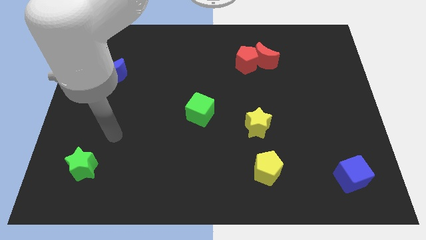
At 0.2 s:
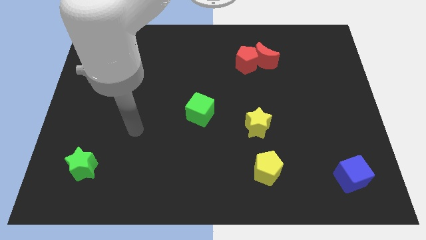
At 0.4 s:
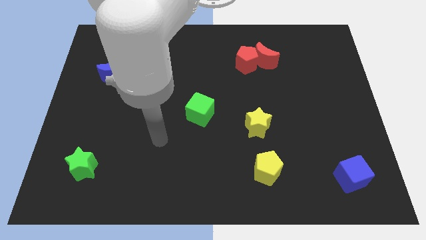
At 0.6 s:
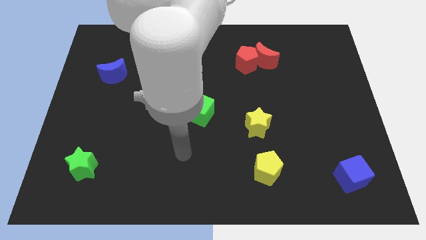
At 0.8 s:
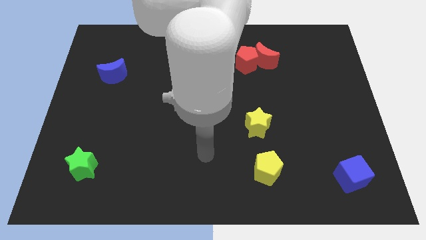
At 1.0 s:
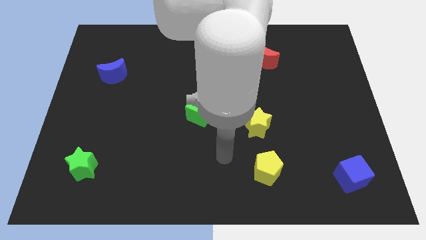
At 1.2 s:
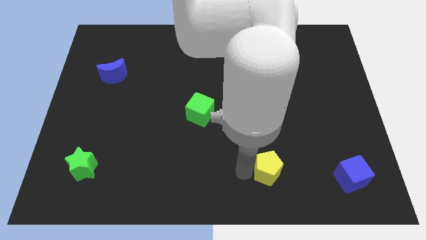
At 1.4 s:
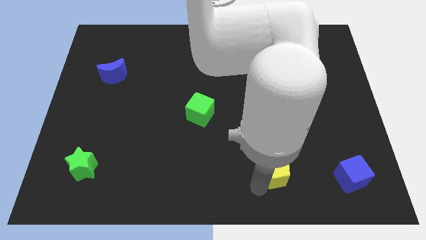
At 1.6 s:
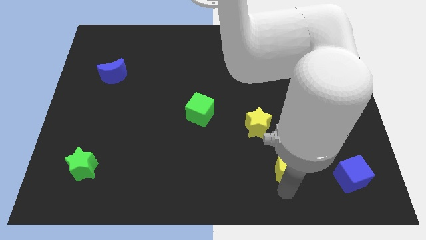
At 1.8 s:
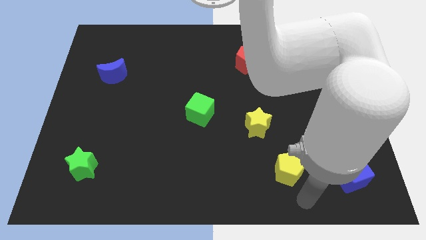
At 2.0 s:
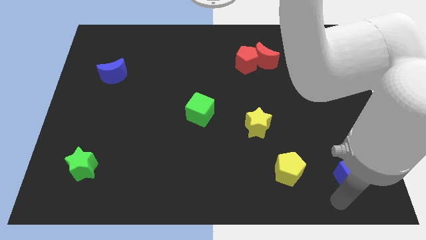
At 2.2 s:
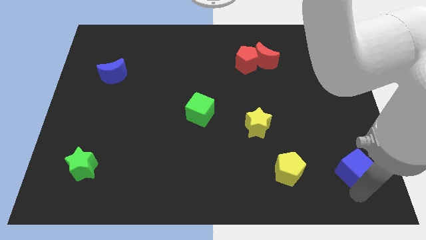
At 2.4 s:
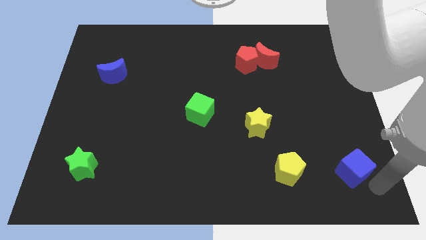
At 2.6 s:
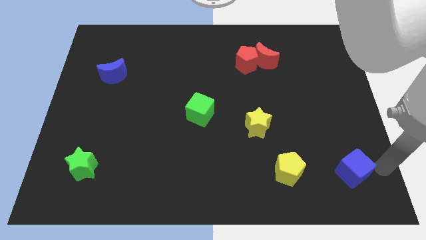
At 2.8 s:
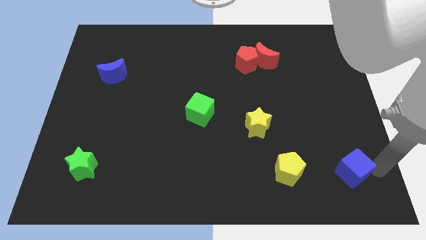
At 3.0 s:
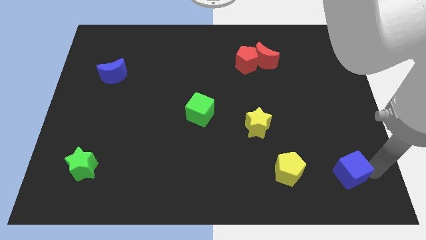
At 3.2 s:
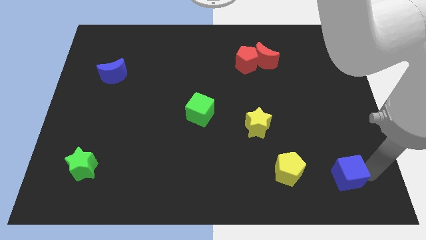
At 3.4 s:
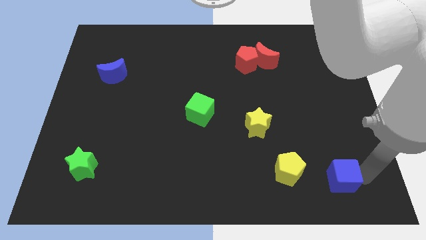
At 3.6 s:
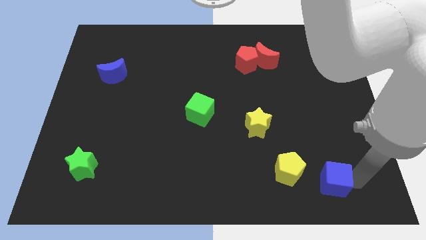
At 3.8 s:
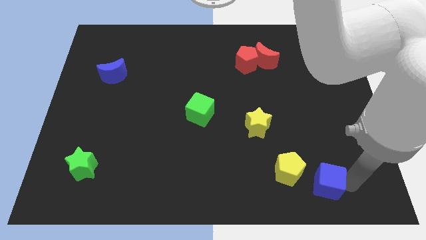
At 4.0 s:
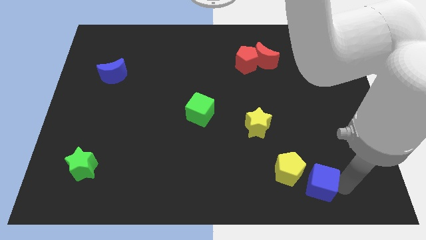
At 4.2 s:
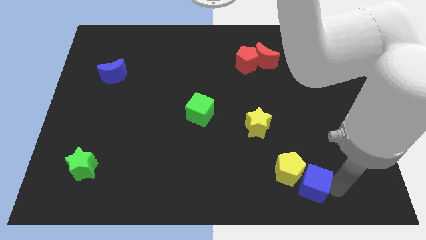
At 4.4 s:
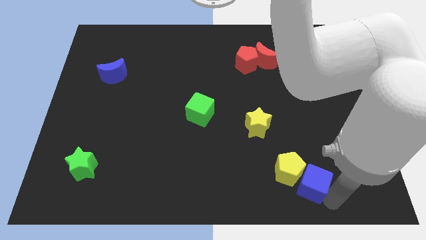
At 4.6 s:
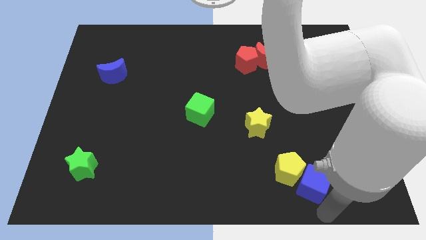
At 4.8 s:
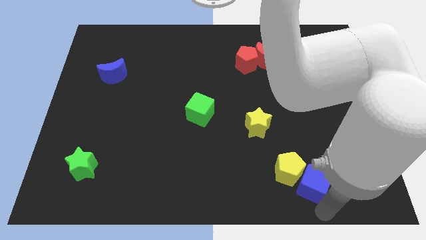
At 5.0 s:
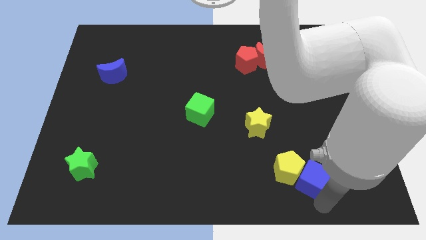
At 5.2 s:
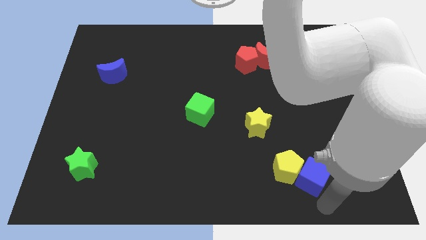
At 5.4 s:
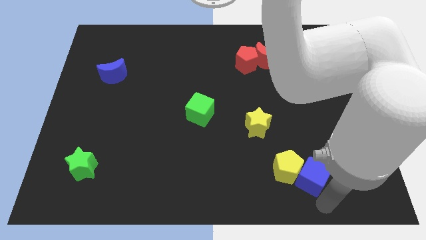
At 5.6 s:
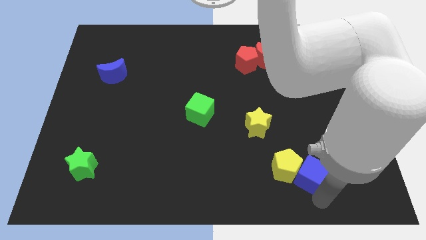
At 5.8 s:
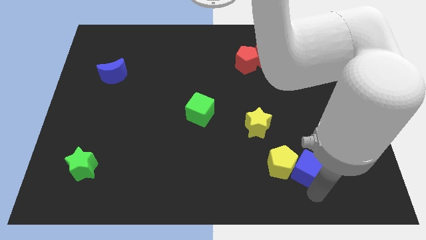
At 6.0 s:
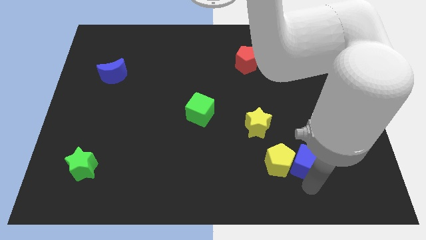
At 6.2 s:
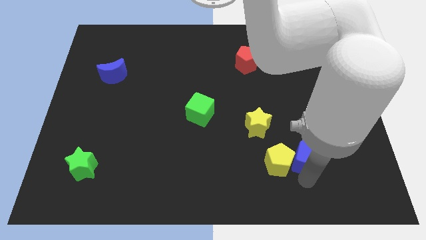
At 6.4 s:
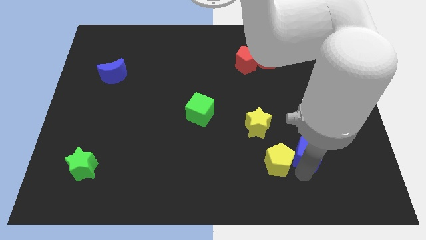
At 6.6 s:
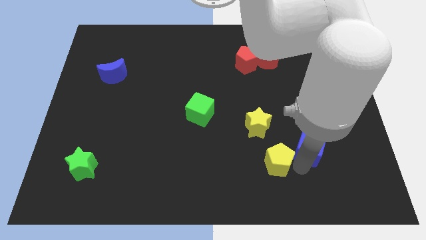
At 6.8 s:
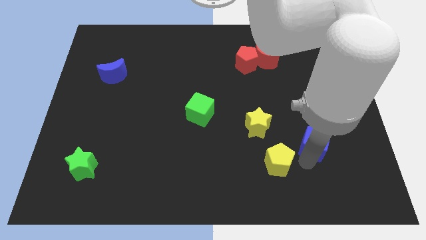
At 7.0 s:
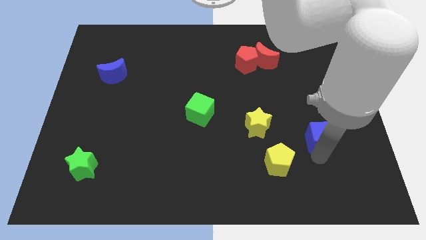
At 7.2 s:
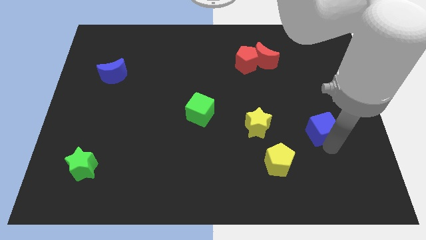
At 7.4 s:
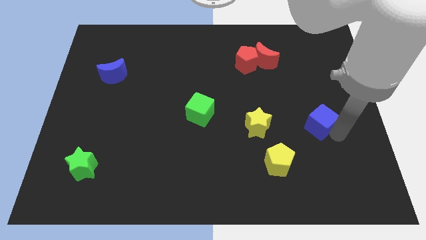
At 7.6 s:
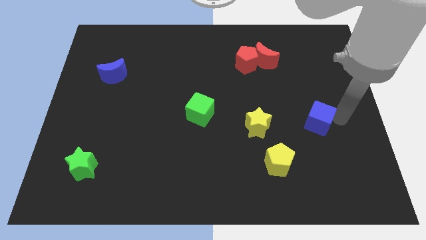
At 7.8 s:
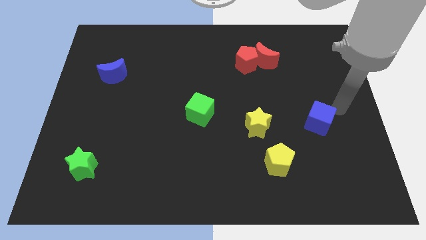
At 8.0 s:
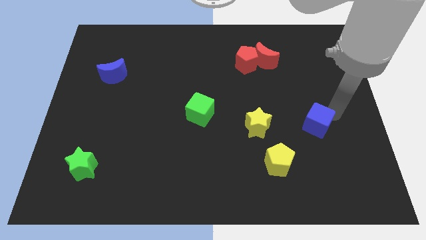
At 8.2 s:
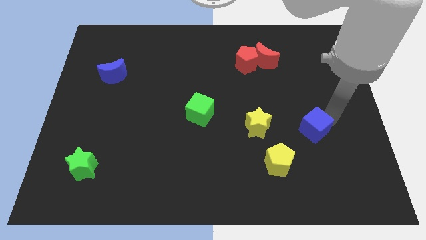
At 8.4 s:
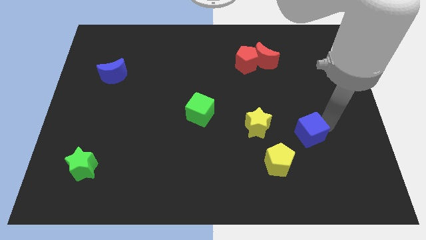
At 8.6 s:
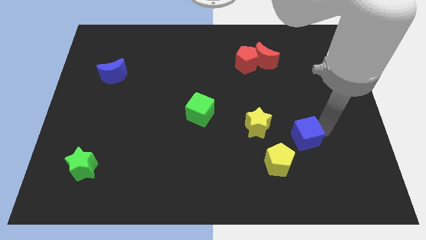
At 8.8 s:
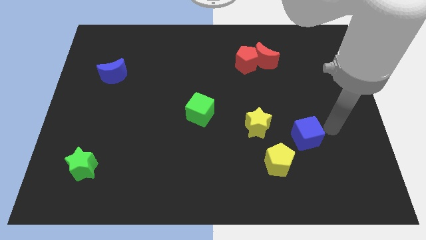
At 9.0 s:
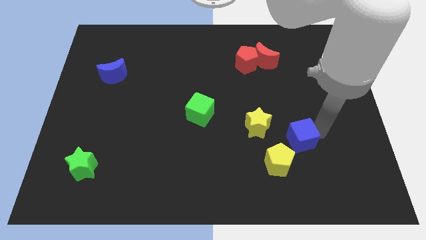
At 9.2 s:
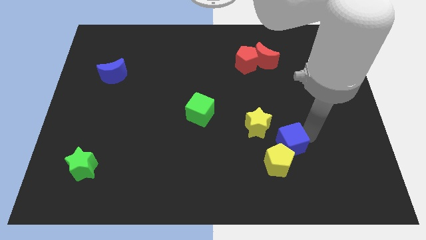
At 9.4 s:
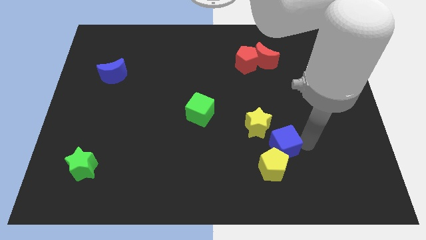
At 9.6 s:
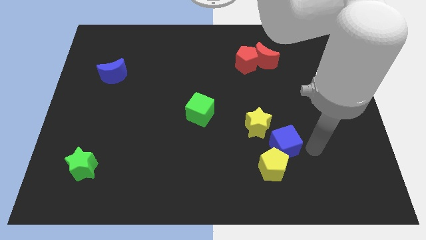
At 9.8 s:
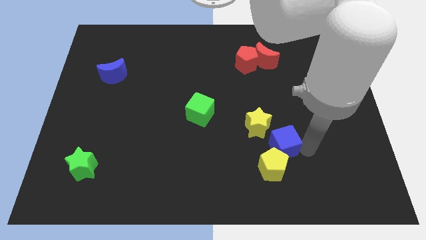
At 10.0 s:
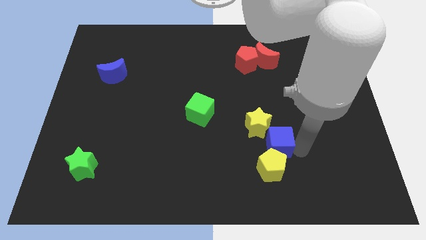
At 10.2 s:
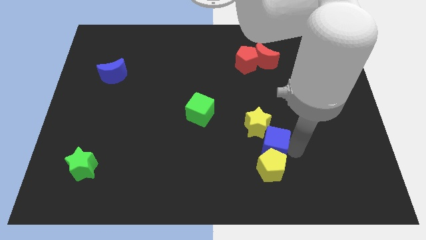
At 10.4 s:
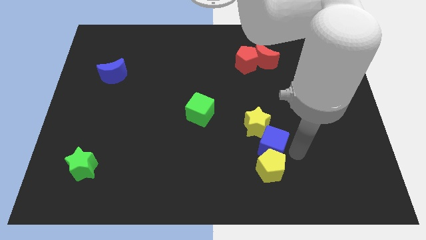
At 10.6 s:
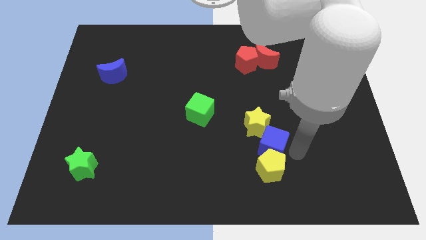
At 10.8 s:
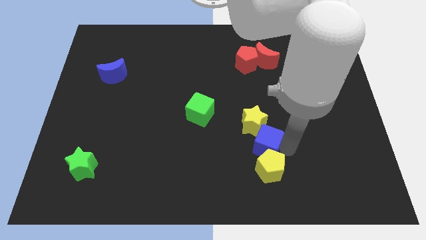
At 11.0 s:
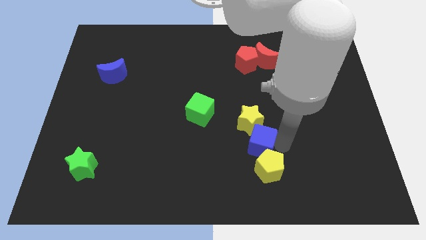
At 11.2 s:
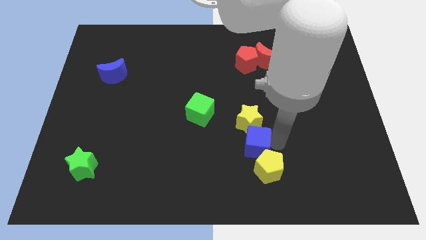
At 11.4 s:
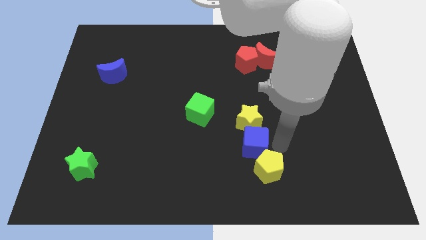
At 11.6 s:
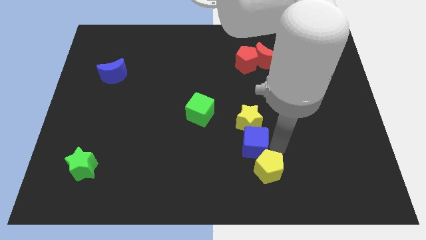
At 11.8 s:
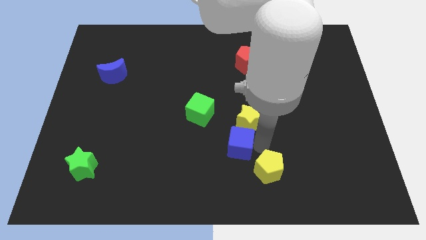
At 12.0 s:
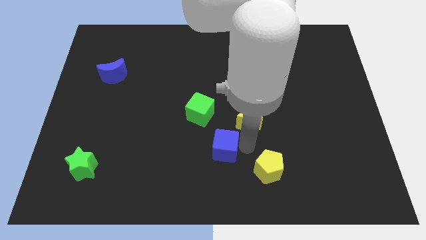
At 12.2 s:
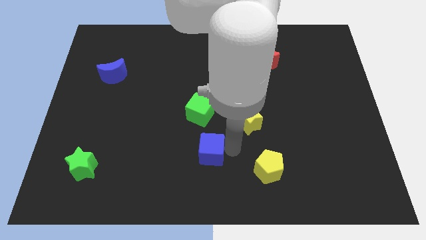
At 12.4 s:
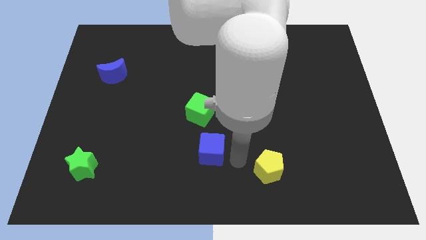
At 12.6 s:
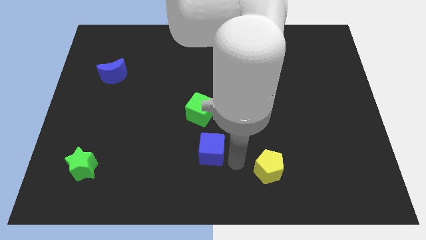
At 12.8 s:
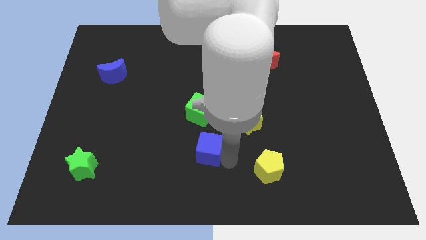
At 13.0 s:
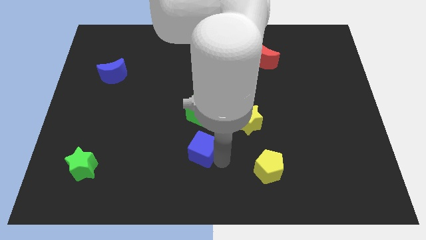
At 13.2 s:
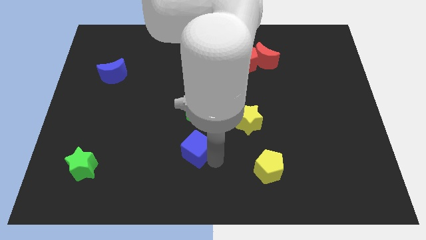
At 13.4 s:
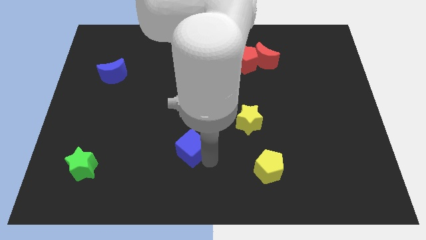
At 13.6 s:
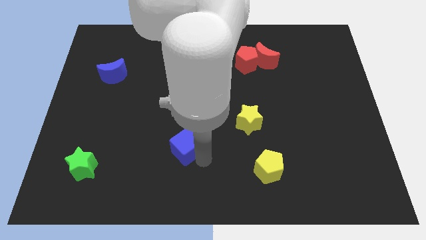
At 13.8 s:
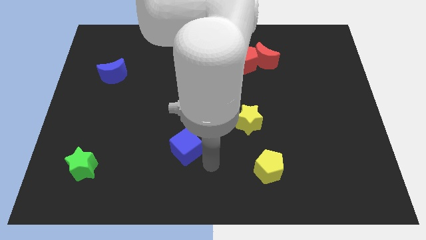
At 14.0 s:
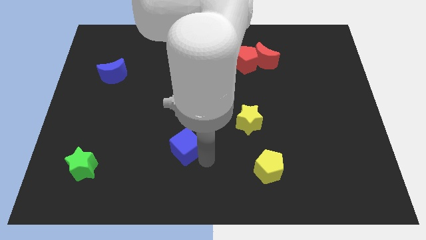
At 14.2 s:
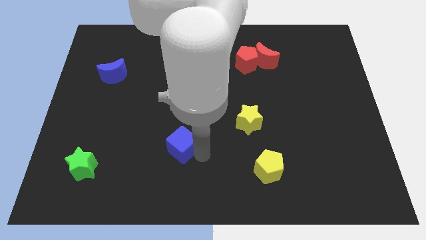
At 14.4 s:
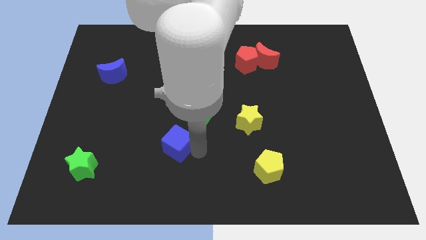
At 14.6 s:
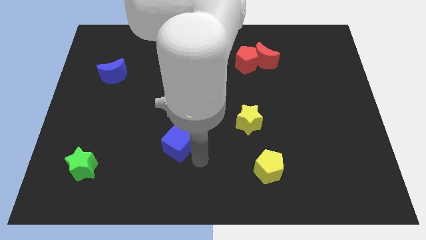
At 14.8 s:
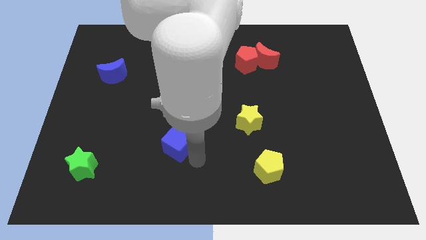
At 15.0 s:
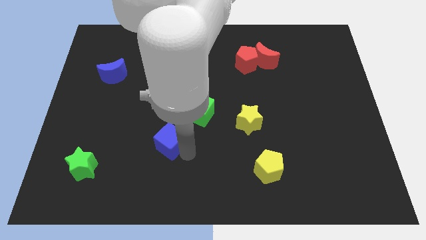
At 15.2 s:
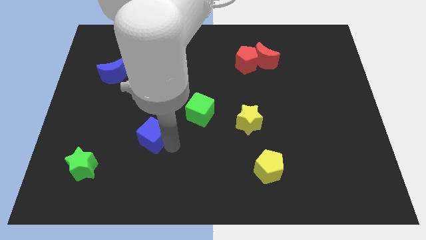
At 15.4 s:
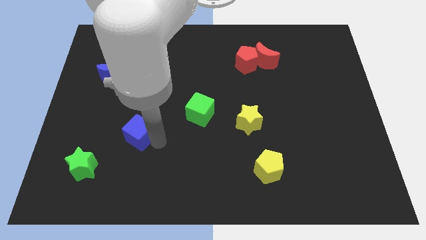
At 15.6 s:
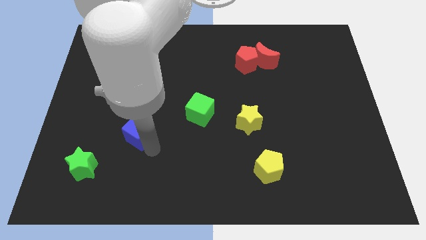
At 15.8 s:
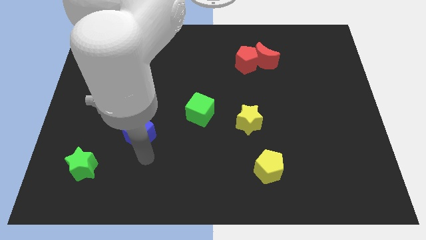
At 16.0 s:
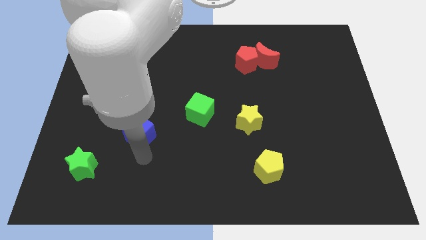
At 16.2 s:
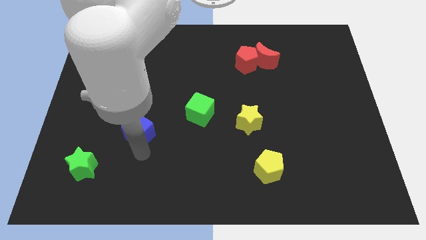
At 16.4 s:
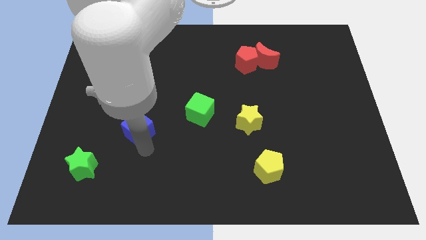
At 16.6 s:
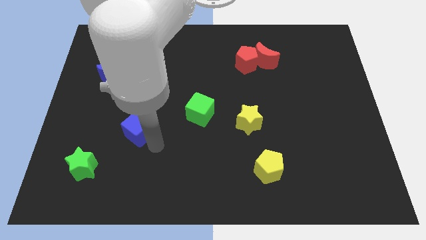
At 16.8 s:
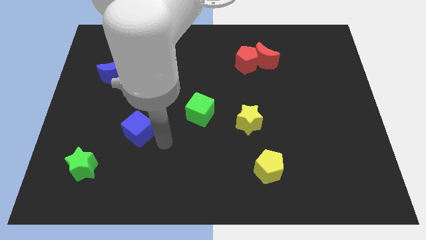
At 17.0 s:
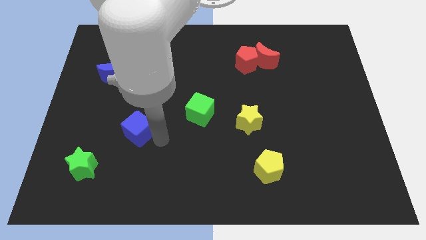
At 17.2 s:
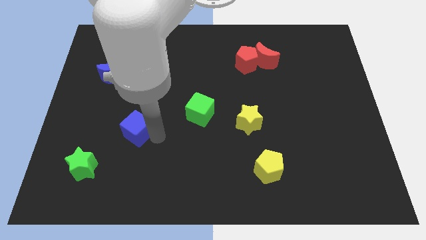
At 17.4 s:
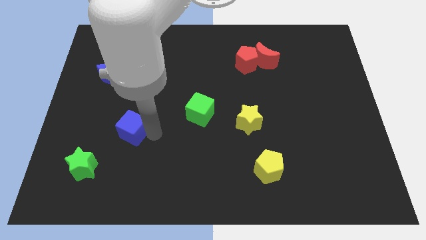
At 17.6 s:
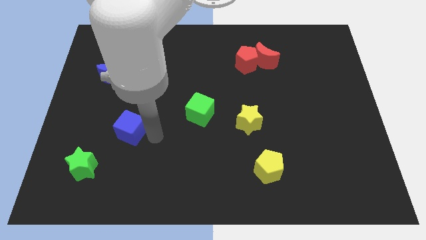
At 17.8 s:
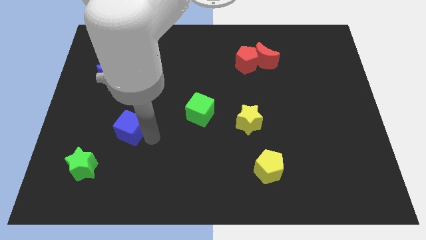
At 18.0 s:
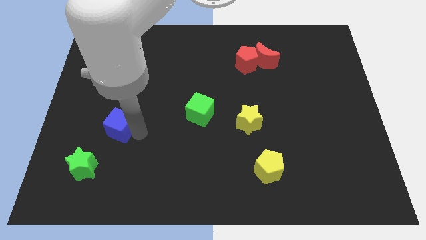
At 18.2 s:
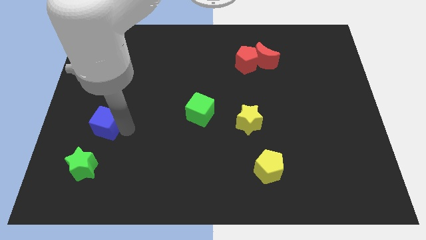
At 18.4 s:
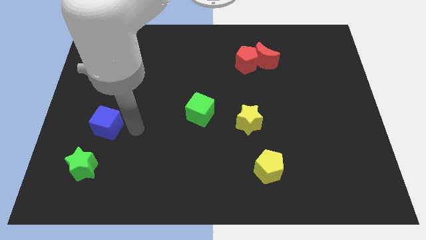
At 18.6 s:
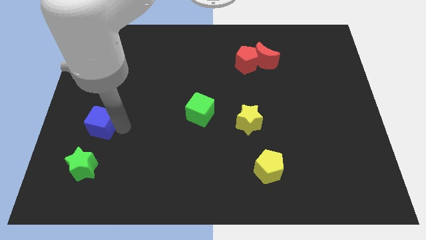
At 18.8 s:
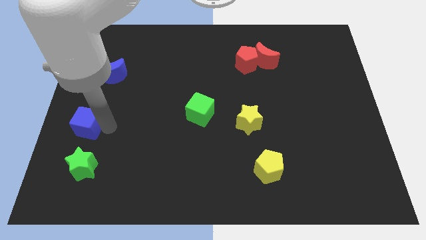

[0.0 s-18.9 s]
move the blue cube to the left side of the board
